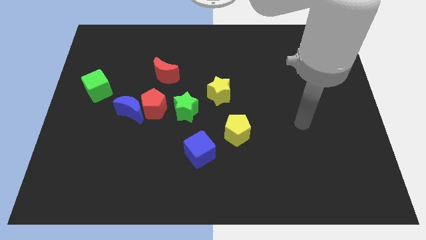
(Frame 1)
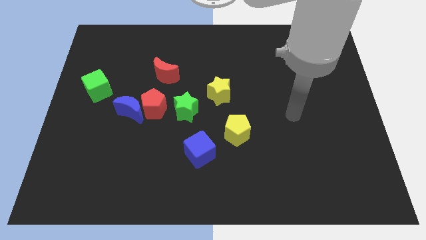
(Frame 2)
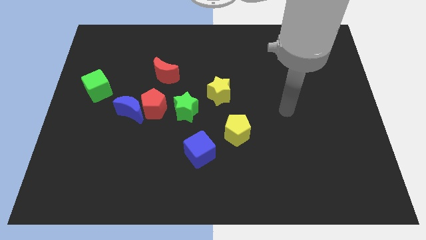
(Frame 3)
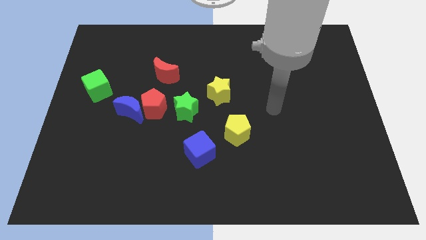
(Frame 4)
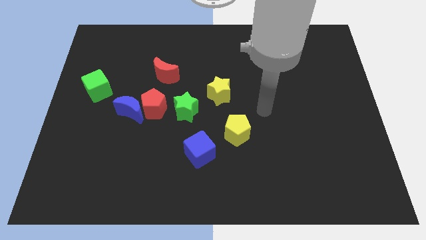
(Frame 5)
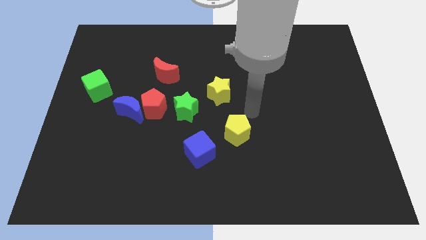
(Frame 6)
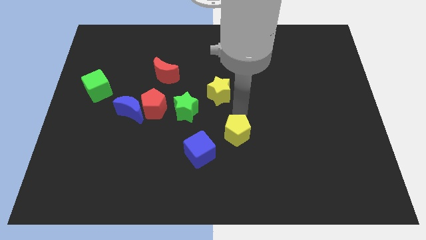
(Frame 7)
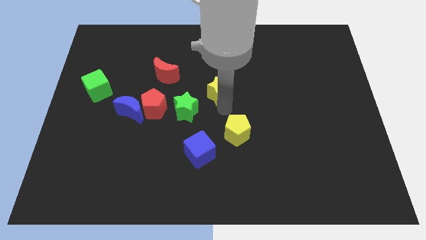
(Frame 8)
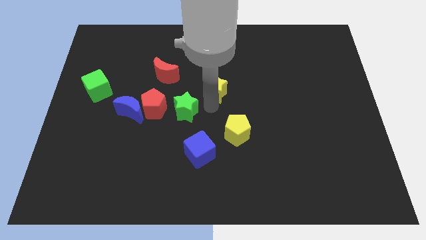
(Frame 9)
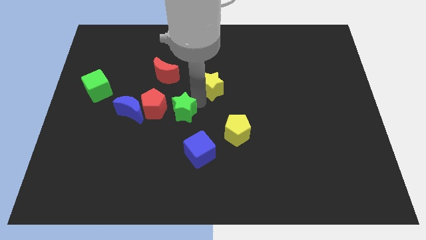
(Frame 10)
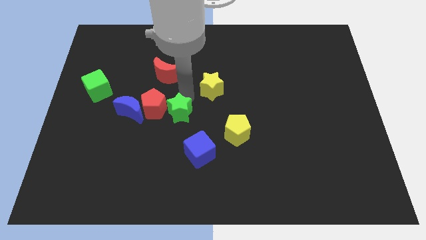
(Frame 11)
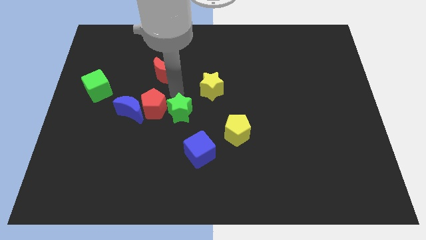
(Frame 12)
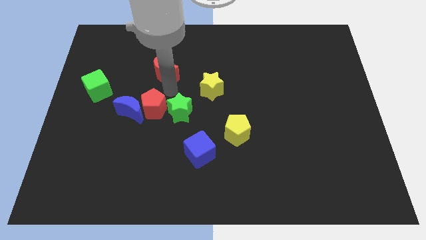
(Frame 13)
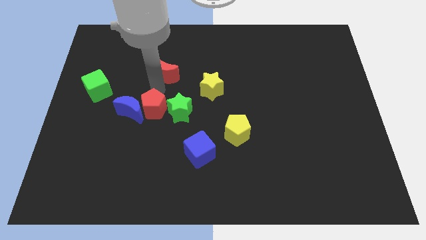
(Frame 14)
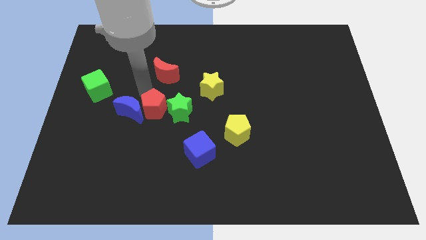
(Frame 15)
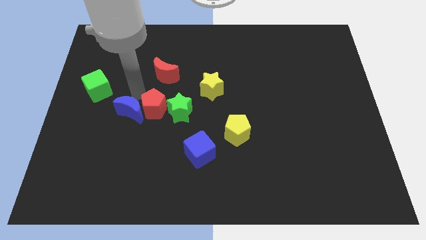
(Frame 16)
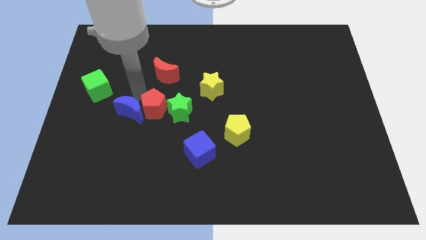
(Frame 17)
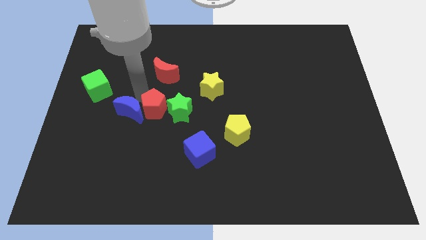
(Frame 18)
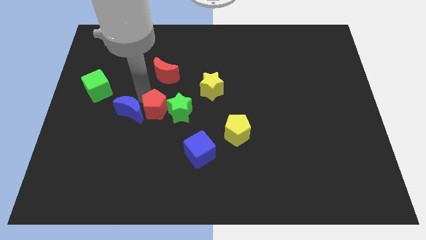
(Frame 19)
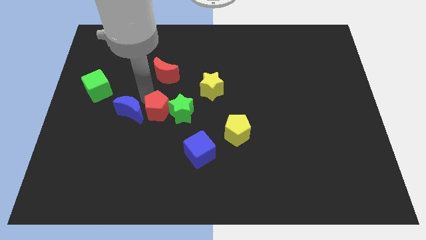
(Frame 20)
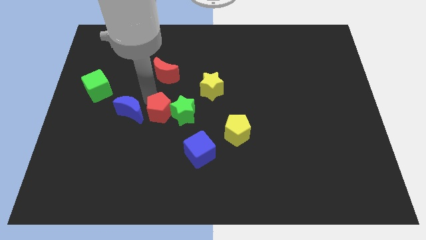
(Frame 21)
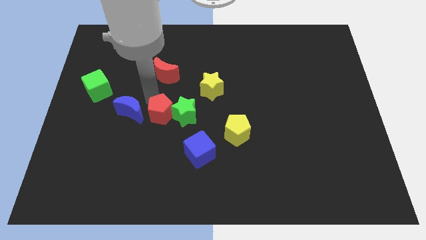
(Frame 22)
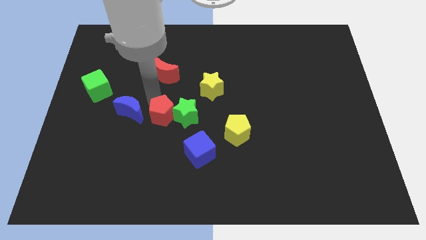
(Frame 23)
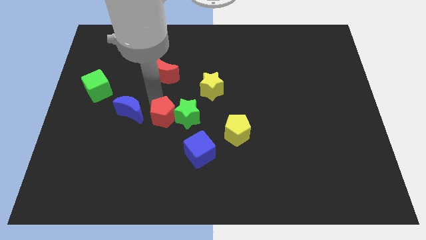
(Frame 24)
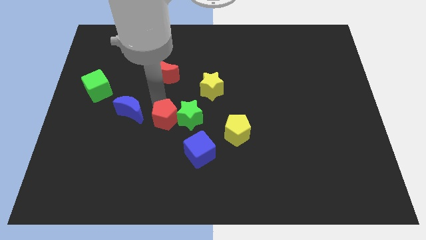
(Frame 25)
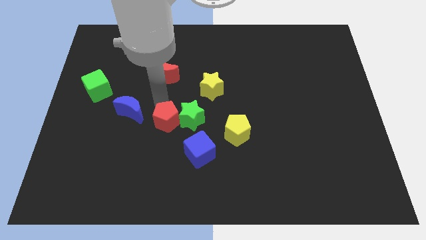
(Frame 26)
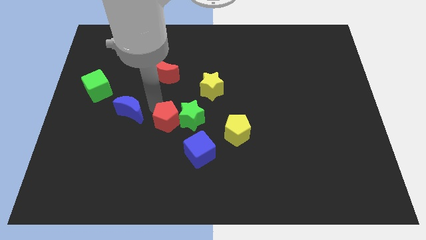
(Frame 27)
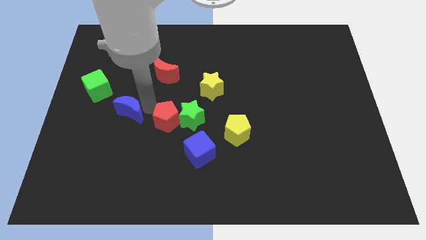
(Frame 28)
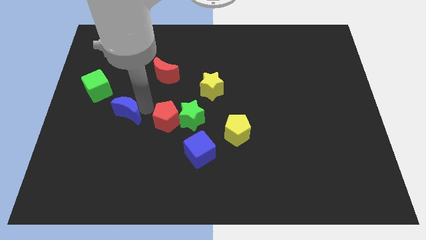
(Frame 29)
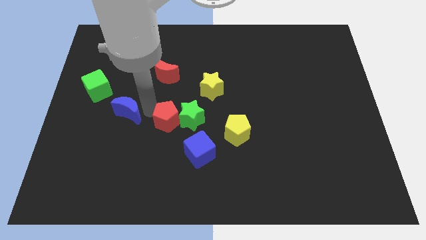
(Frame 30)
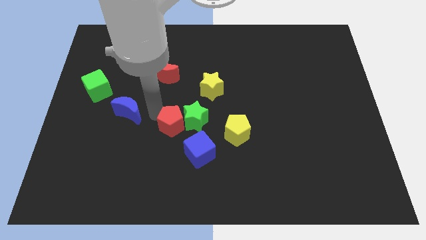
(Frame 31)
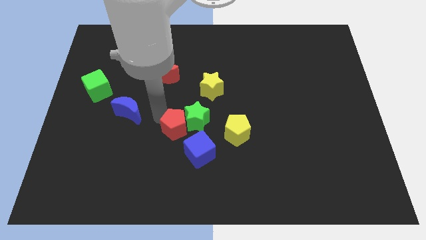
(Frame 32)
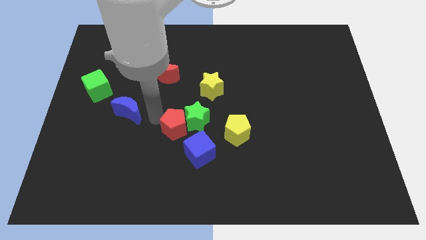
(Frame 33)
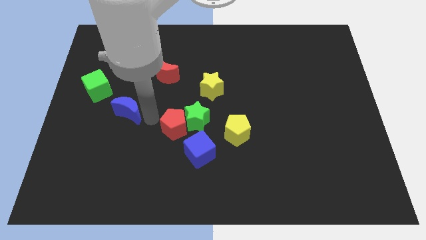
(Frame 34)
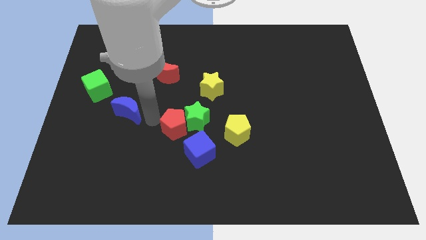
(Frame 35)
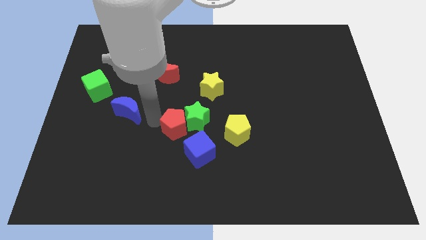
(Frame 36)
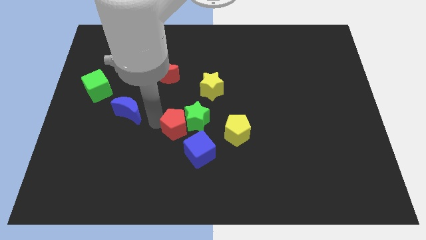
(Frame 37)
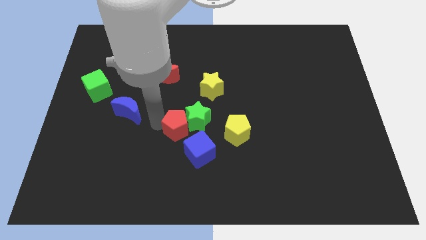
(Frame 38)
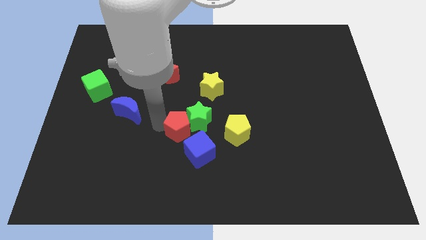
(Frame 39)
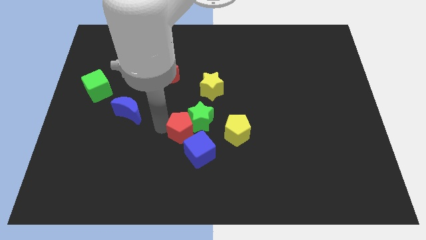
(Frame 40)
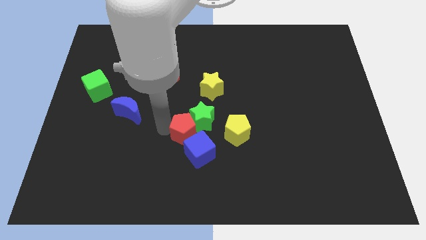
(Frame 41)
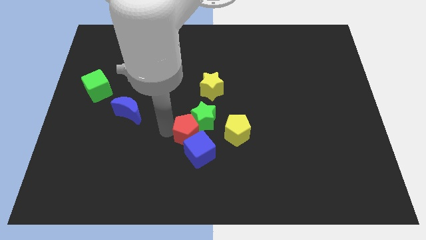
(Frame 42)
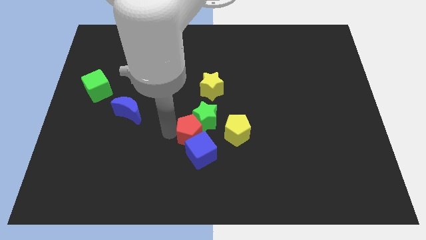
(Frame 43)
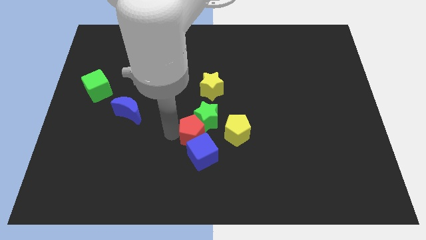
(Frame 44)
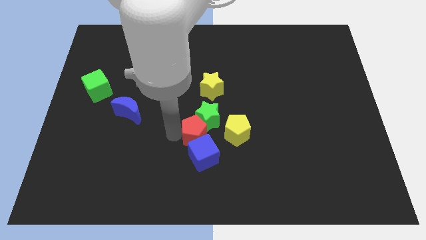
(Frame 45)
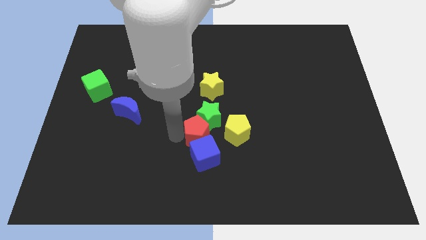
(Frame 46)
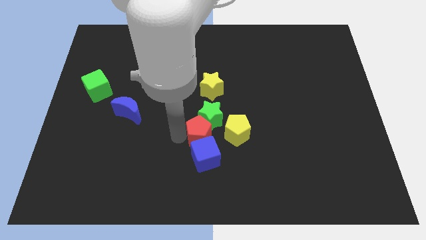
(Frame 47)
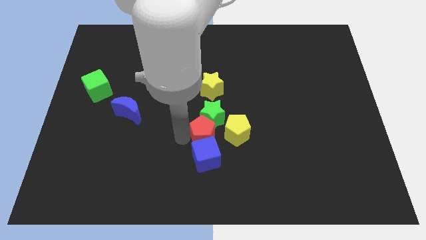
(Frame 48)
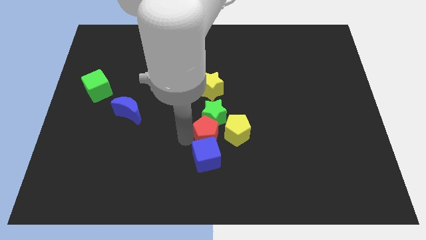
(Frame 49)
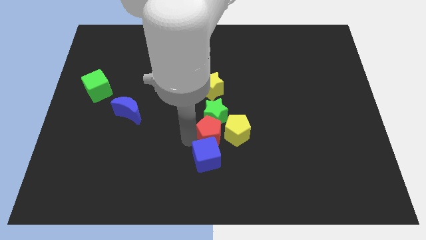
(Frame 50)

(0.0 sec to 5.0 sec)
put the red pentagon close to the yellow pentagon

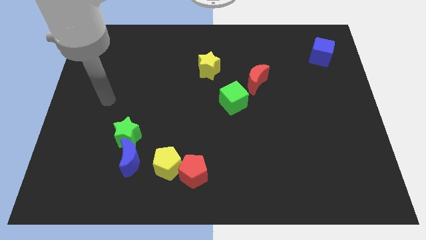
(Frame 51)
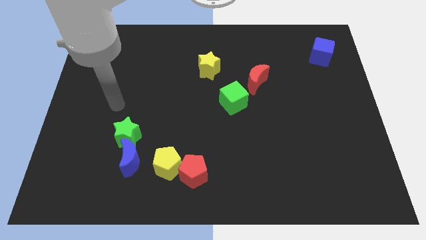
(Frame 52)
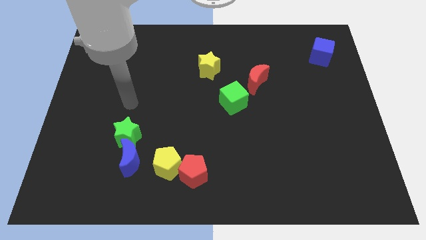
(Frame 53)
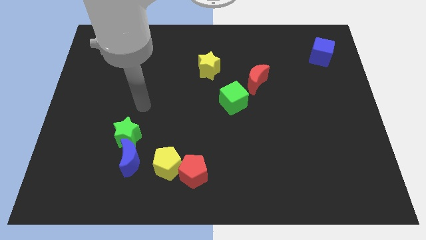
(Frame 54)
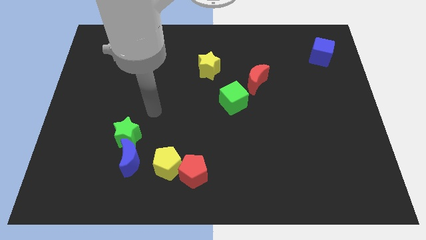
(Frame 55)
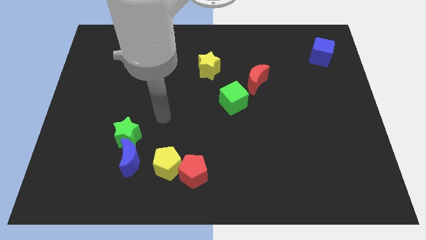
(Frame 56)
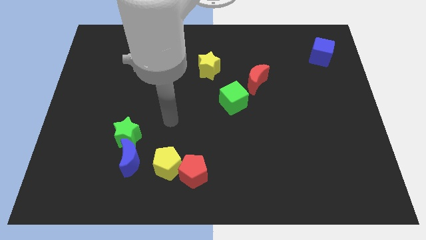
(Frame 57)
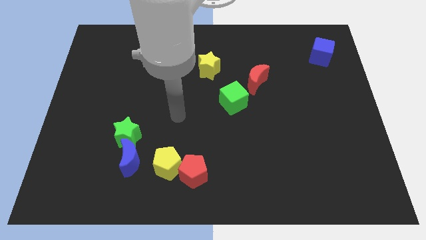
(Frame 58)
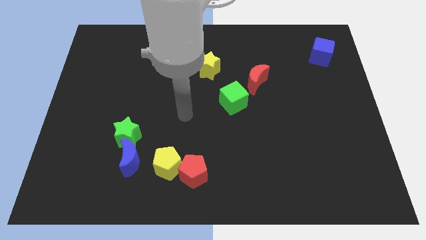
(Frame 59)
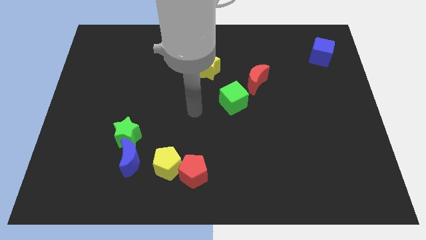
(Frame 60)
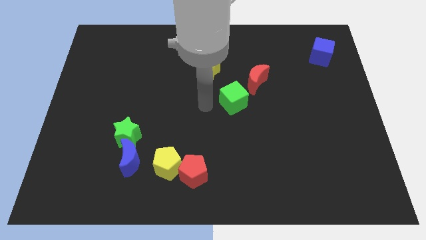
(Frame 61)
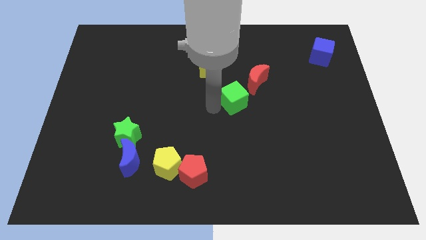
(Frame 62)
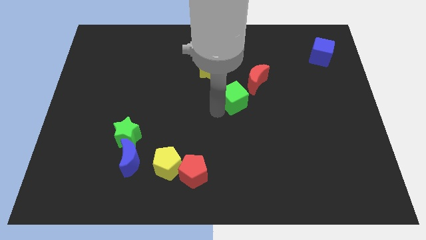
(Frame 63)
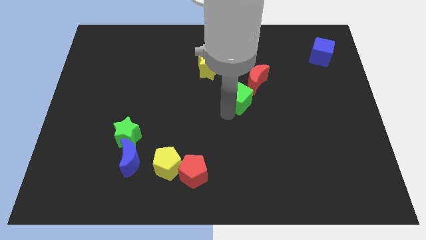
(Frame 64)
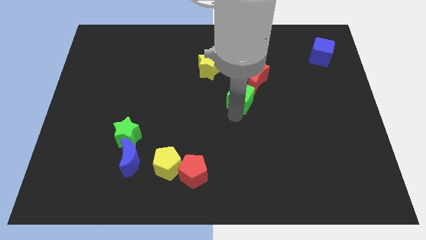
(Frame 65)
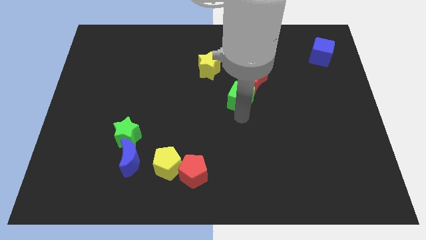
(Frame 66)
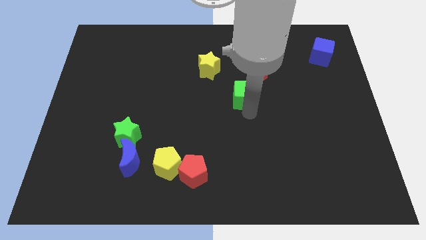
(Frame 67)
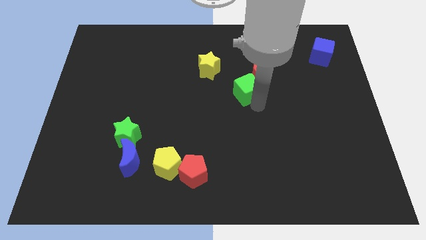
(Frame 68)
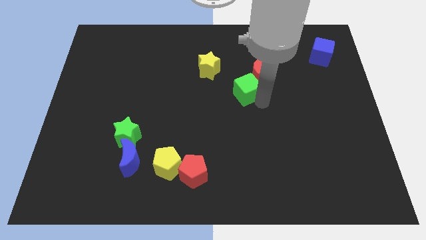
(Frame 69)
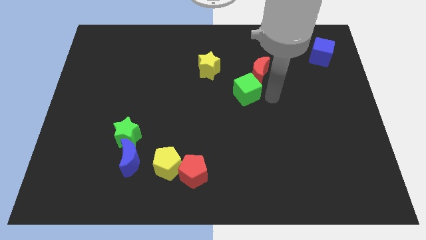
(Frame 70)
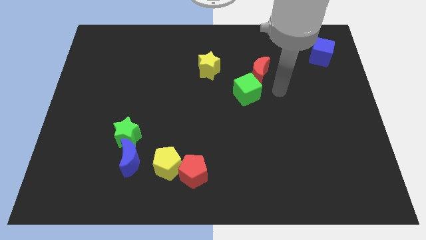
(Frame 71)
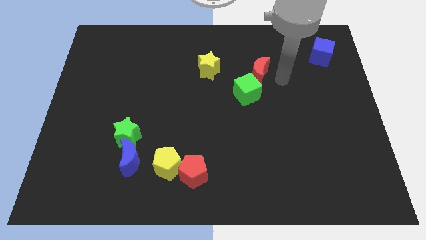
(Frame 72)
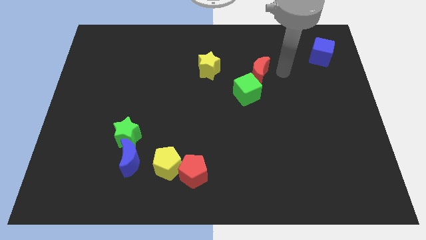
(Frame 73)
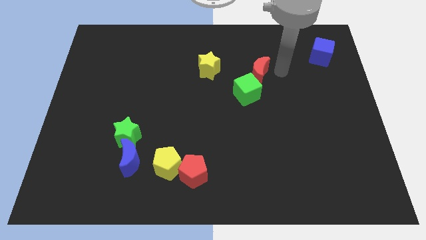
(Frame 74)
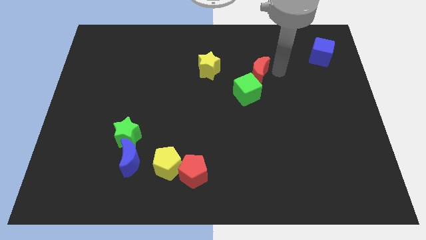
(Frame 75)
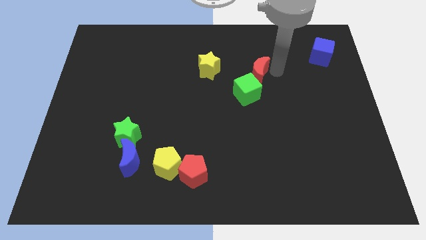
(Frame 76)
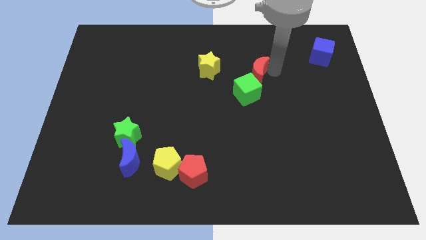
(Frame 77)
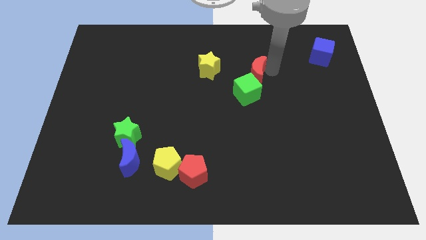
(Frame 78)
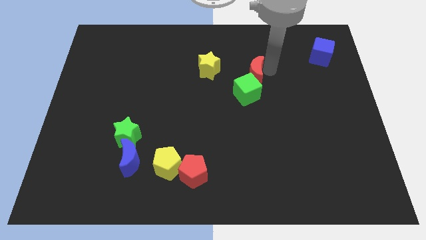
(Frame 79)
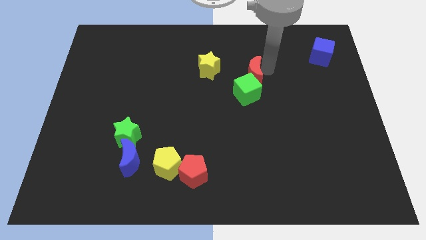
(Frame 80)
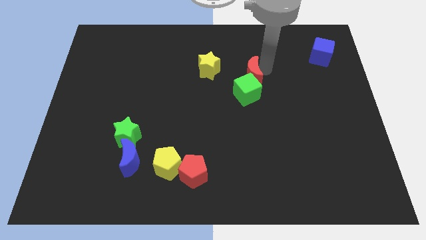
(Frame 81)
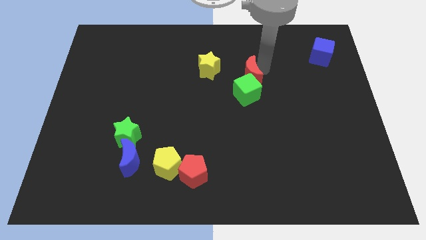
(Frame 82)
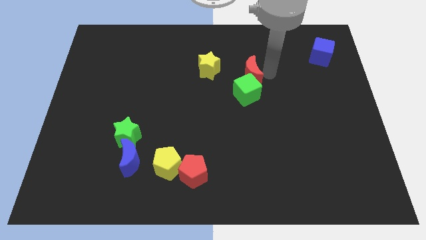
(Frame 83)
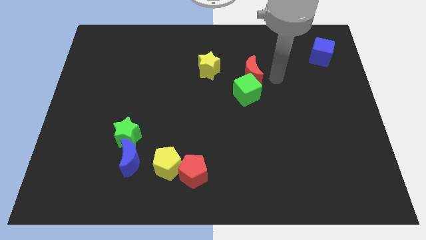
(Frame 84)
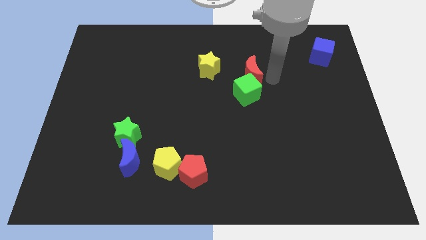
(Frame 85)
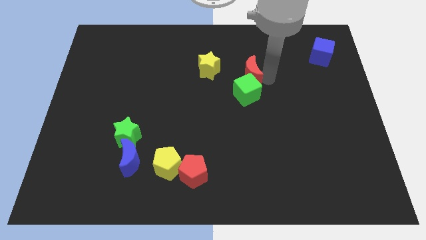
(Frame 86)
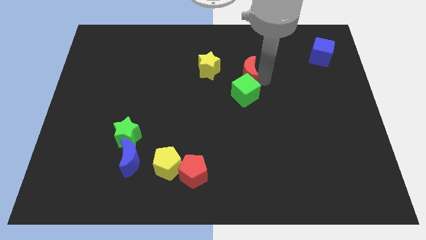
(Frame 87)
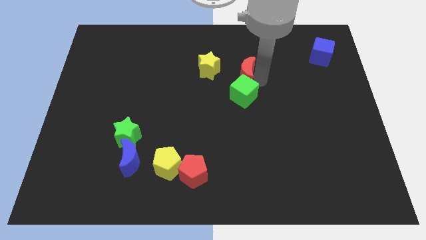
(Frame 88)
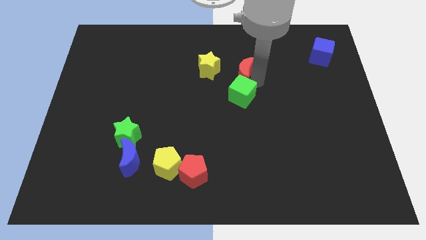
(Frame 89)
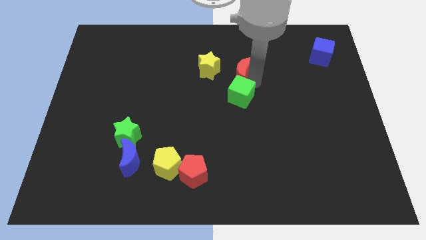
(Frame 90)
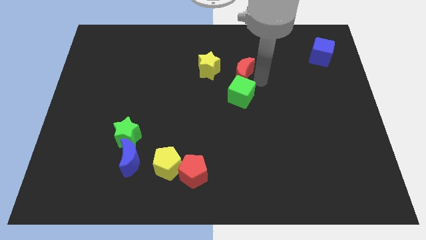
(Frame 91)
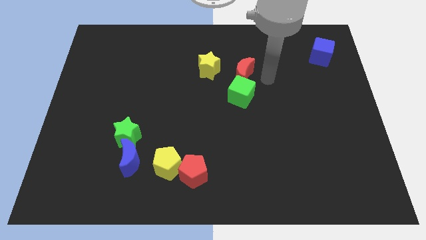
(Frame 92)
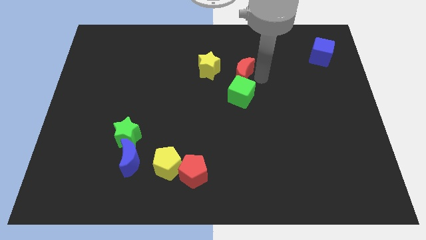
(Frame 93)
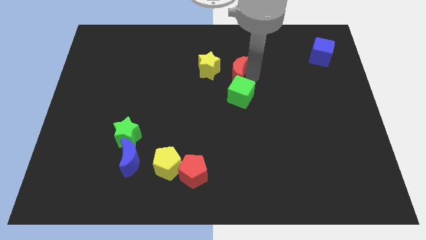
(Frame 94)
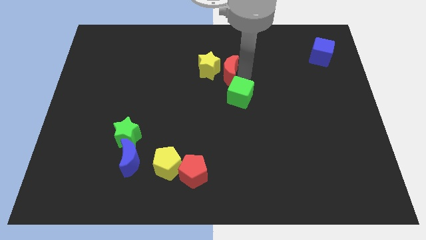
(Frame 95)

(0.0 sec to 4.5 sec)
push the red moon next to the yellow star
